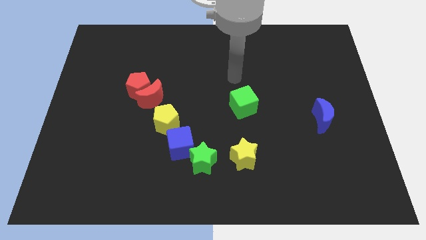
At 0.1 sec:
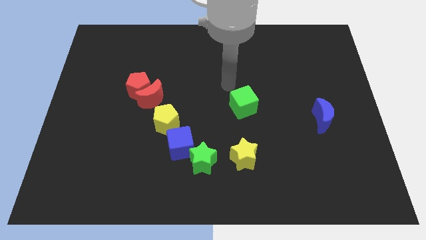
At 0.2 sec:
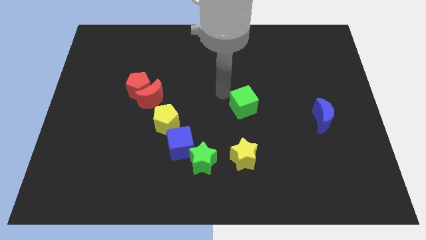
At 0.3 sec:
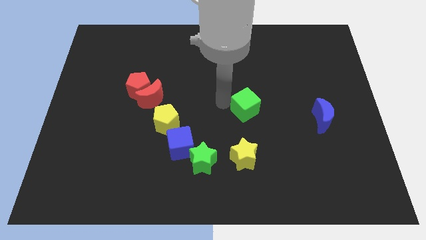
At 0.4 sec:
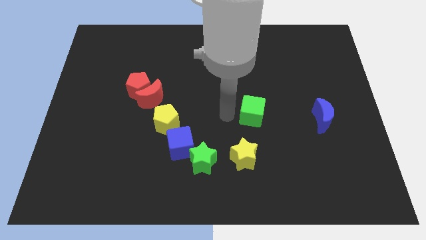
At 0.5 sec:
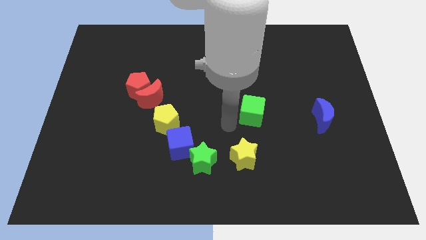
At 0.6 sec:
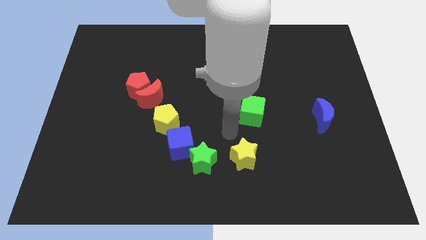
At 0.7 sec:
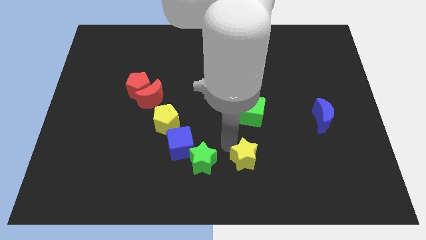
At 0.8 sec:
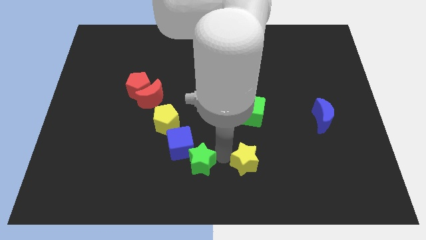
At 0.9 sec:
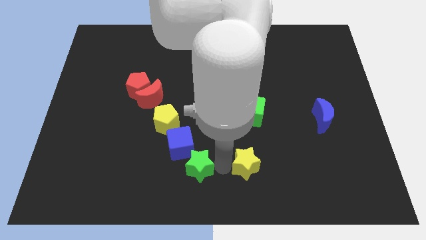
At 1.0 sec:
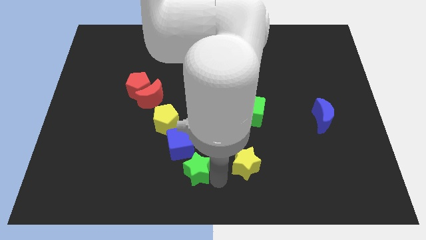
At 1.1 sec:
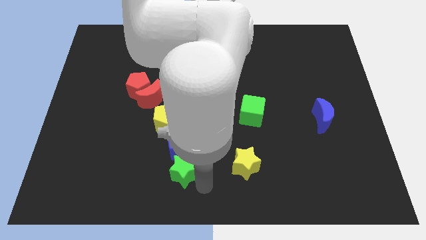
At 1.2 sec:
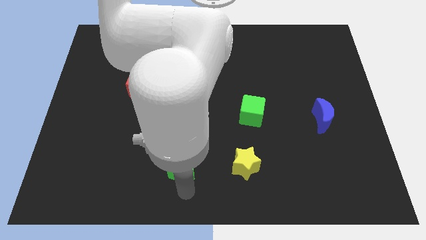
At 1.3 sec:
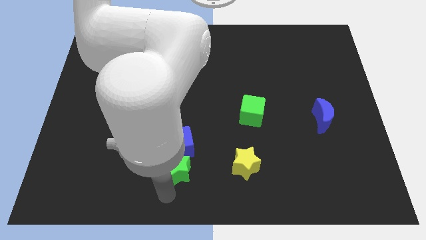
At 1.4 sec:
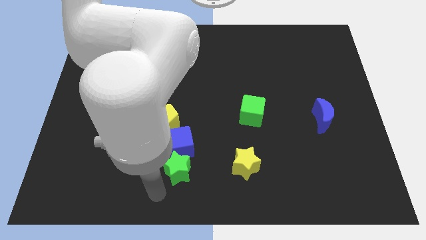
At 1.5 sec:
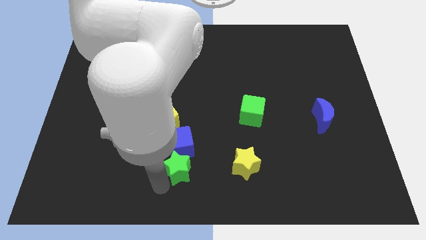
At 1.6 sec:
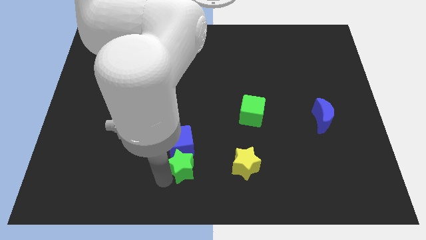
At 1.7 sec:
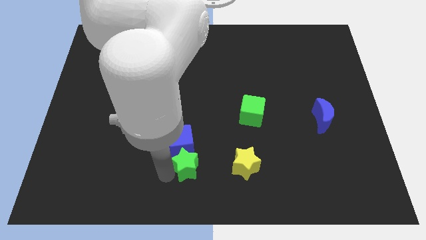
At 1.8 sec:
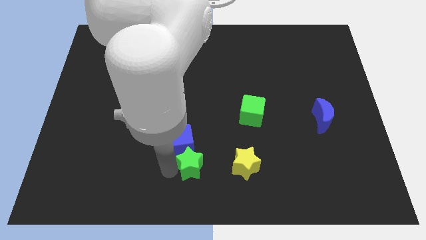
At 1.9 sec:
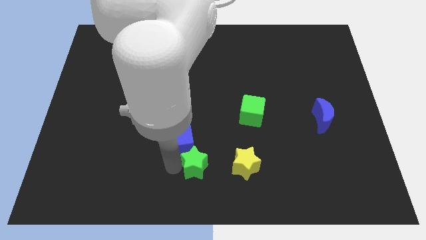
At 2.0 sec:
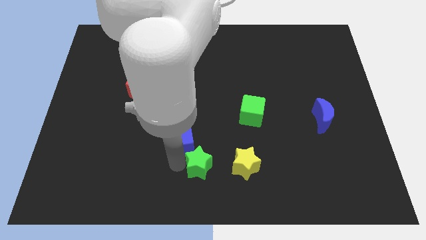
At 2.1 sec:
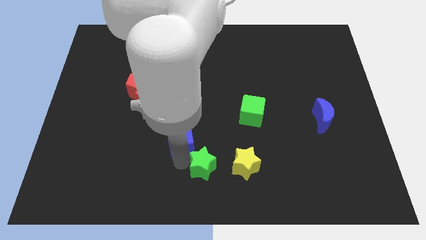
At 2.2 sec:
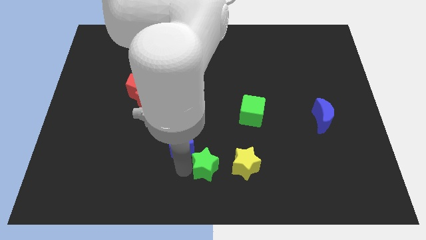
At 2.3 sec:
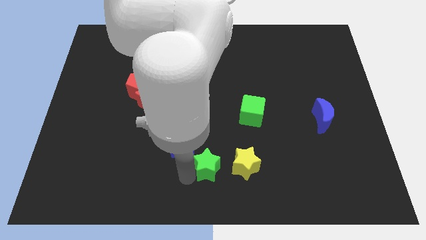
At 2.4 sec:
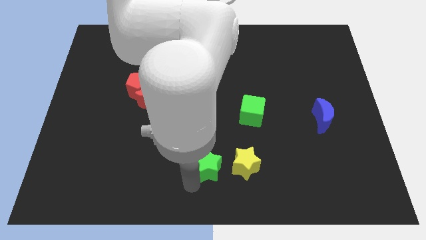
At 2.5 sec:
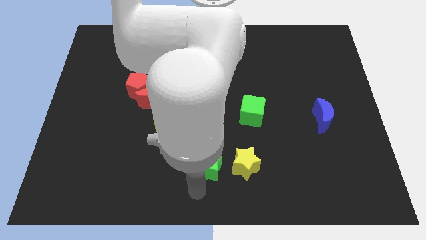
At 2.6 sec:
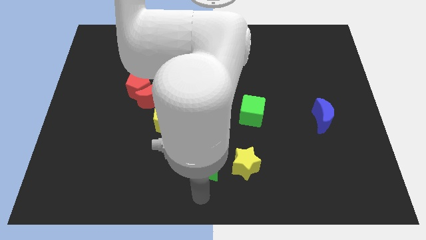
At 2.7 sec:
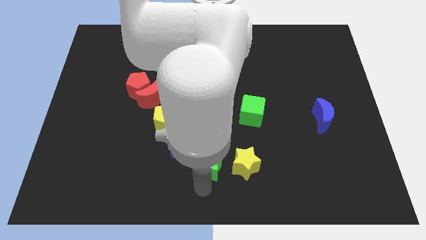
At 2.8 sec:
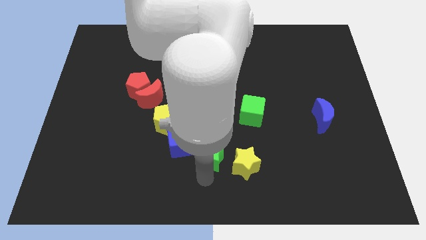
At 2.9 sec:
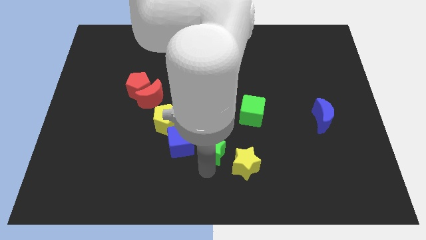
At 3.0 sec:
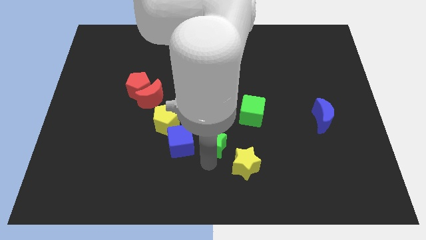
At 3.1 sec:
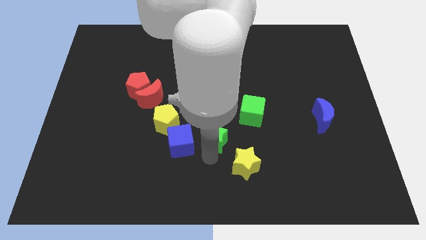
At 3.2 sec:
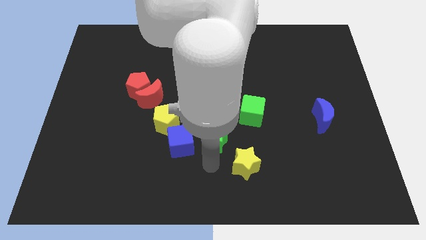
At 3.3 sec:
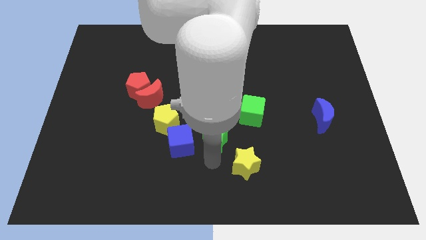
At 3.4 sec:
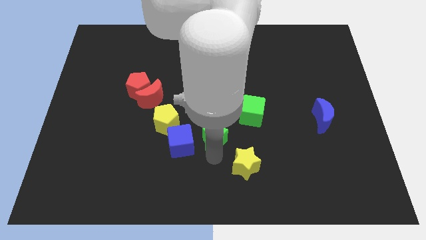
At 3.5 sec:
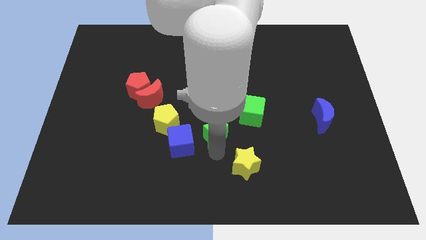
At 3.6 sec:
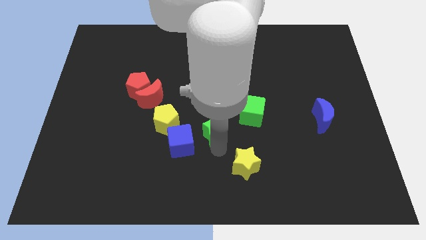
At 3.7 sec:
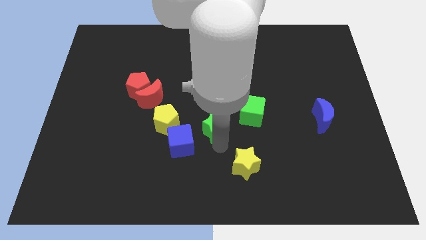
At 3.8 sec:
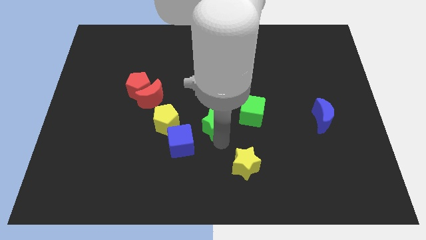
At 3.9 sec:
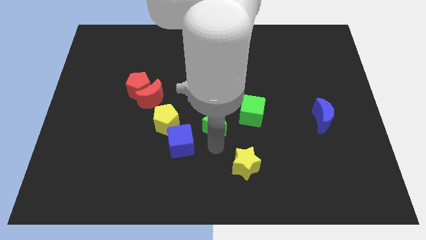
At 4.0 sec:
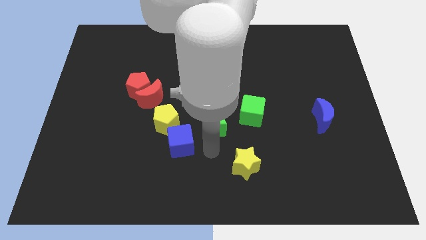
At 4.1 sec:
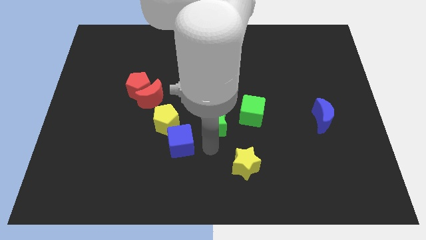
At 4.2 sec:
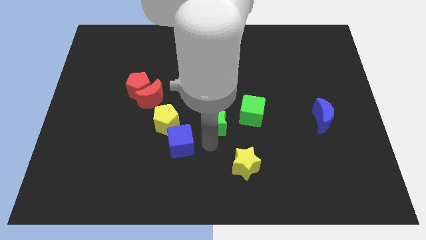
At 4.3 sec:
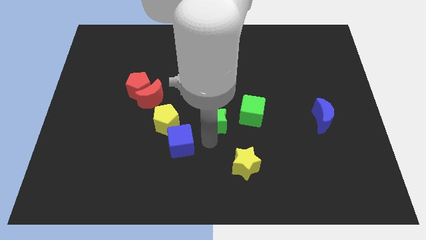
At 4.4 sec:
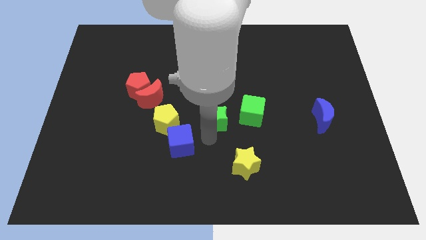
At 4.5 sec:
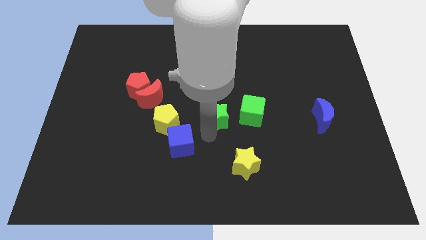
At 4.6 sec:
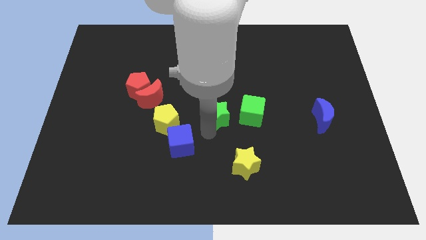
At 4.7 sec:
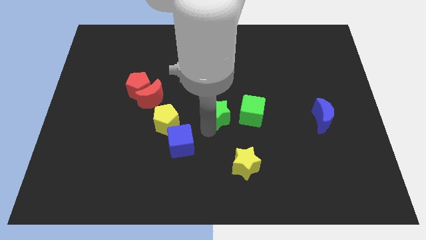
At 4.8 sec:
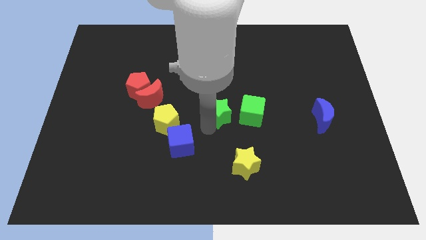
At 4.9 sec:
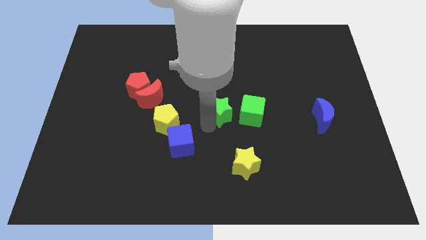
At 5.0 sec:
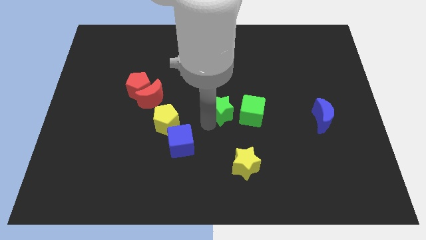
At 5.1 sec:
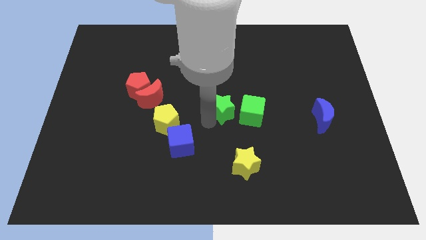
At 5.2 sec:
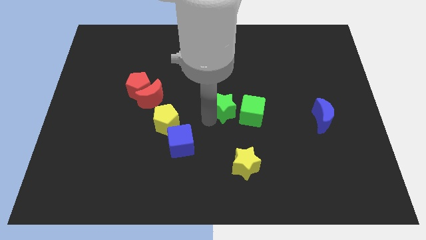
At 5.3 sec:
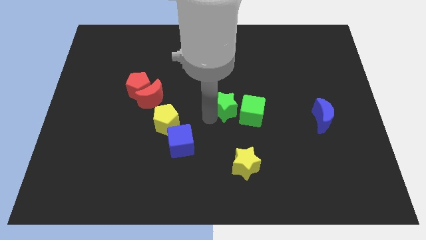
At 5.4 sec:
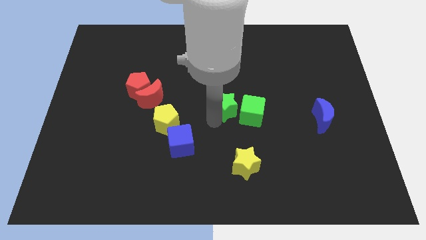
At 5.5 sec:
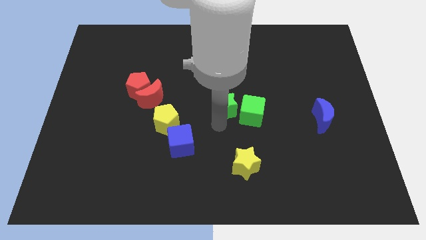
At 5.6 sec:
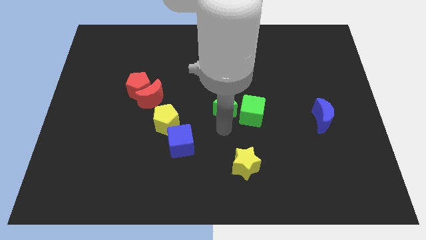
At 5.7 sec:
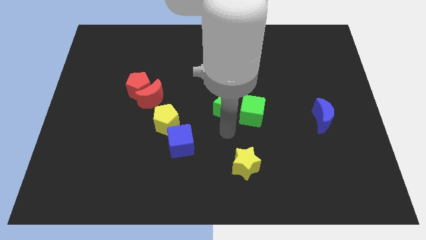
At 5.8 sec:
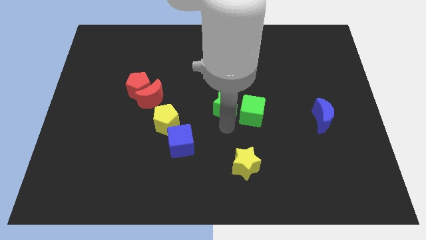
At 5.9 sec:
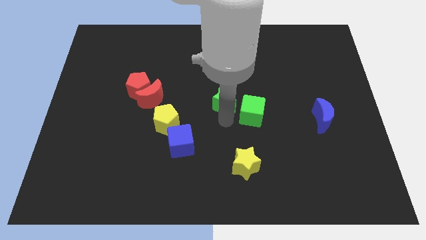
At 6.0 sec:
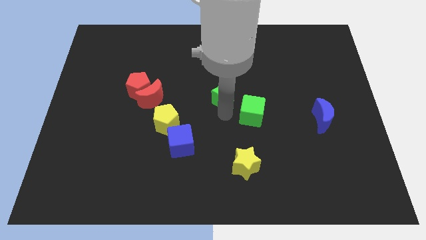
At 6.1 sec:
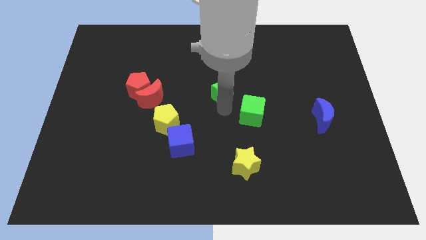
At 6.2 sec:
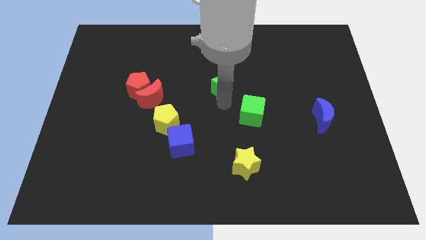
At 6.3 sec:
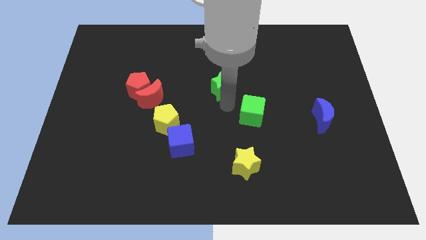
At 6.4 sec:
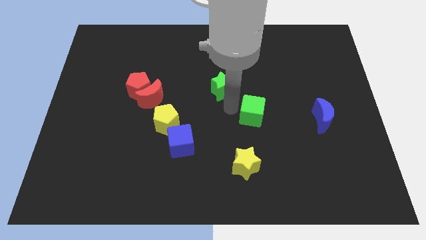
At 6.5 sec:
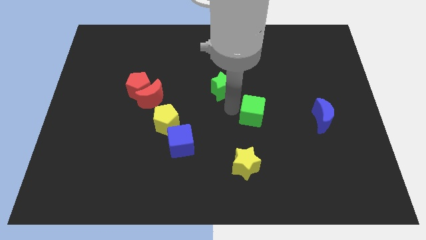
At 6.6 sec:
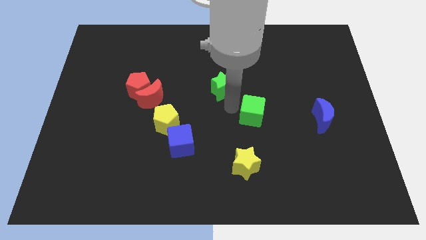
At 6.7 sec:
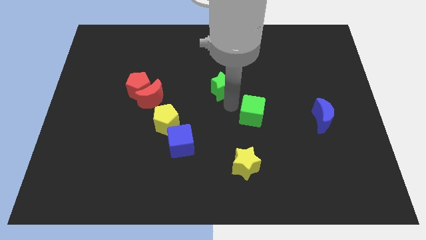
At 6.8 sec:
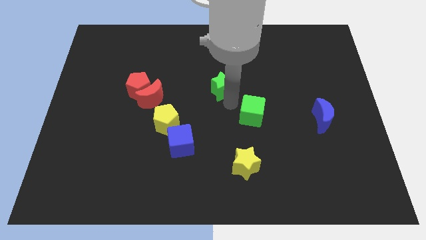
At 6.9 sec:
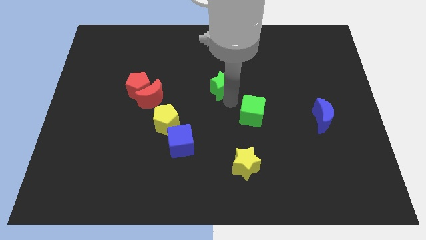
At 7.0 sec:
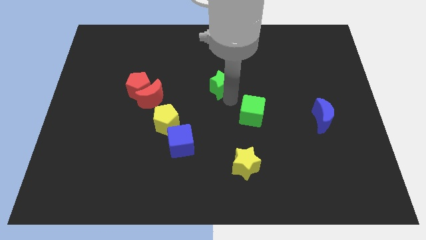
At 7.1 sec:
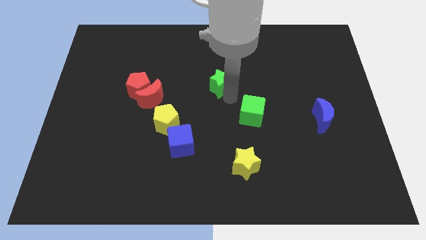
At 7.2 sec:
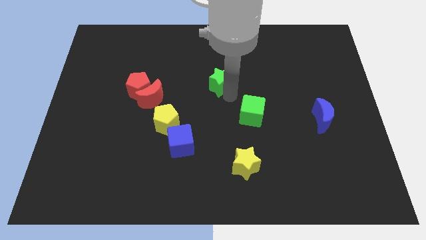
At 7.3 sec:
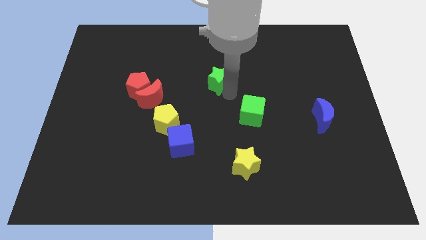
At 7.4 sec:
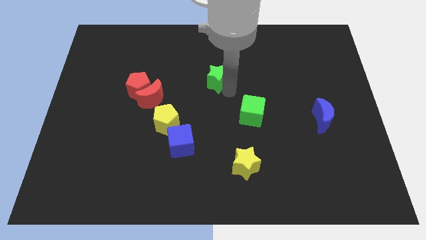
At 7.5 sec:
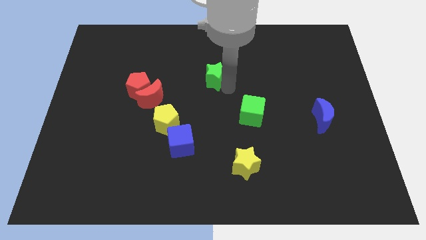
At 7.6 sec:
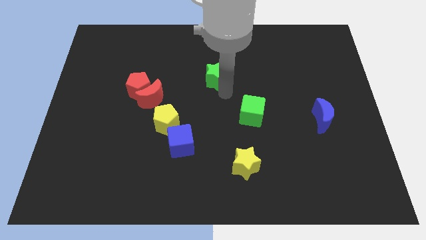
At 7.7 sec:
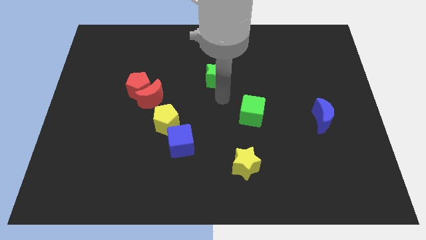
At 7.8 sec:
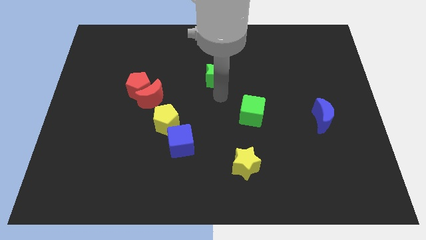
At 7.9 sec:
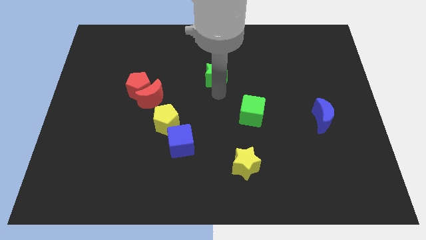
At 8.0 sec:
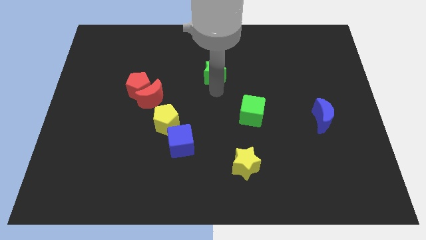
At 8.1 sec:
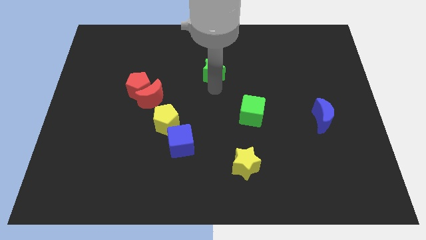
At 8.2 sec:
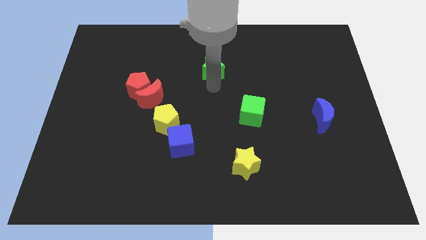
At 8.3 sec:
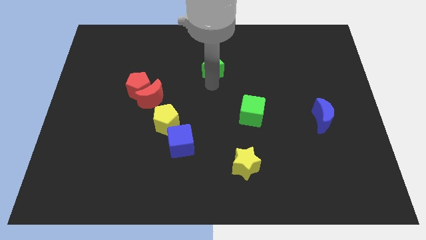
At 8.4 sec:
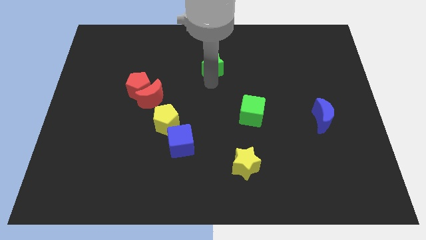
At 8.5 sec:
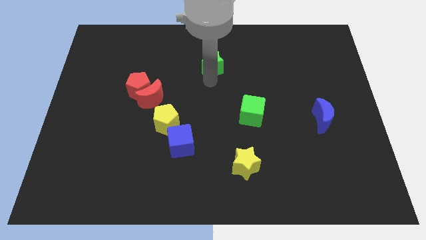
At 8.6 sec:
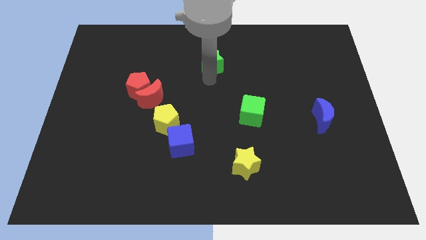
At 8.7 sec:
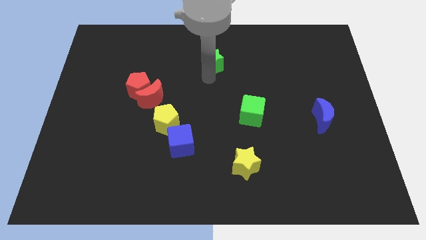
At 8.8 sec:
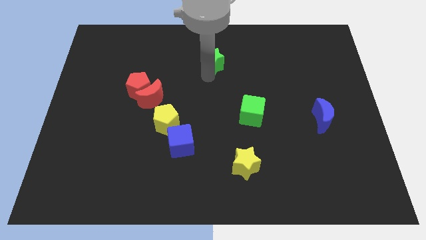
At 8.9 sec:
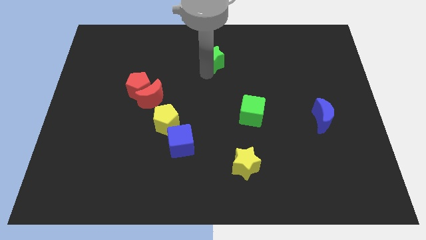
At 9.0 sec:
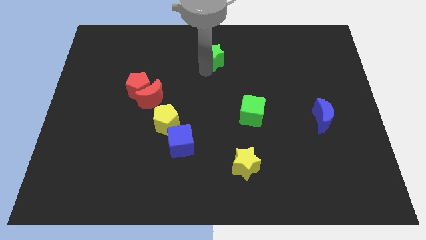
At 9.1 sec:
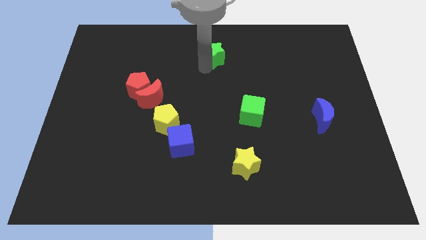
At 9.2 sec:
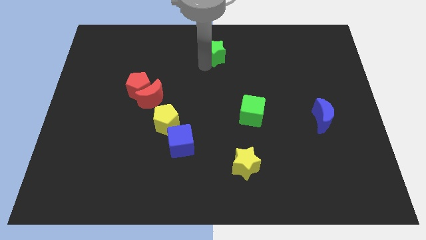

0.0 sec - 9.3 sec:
move the green star to the top side
